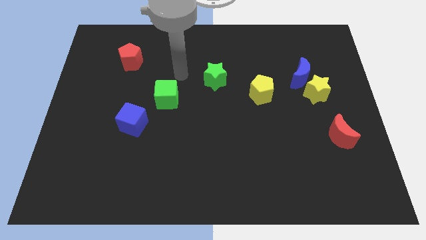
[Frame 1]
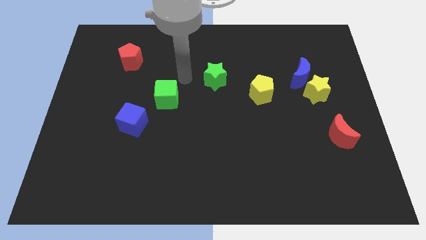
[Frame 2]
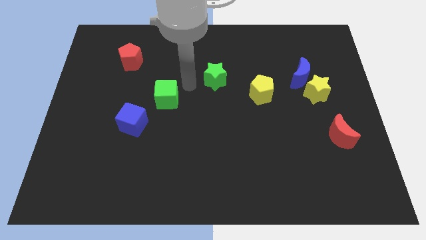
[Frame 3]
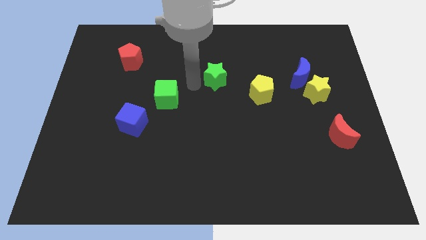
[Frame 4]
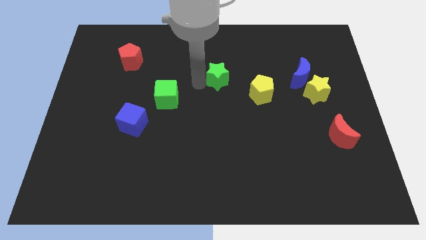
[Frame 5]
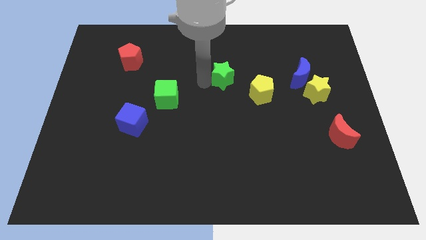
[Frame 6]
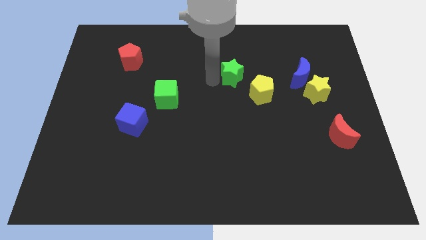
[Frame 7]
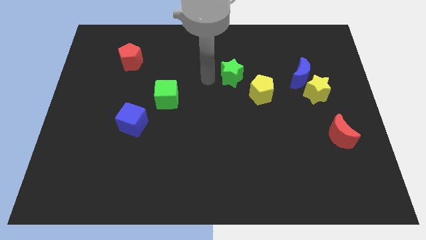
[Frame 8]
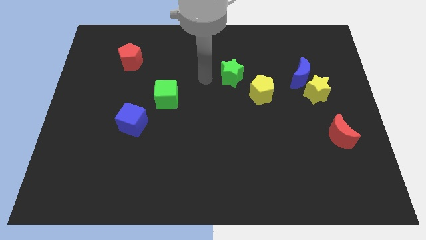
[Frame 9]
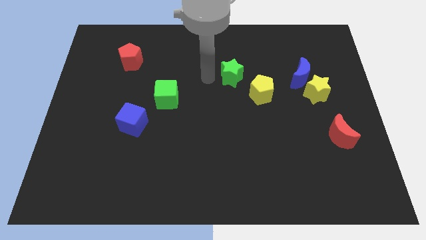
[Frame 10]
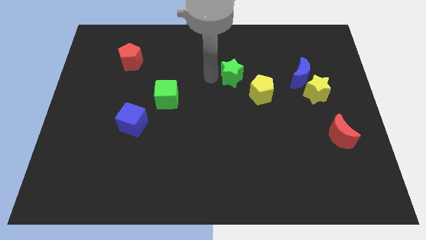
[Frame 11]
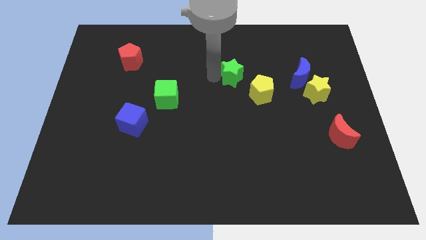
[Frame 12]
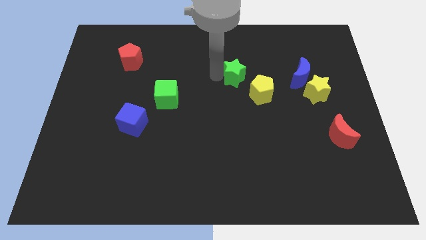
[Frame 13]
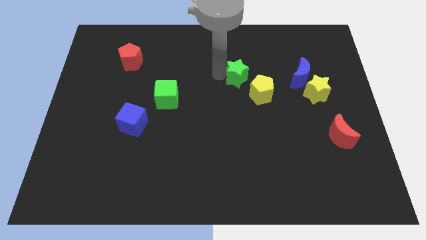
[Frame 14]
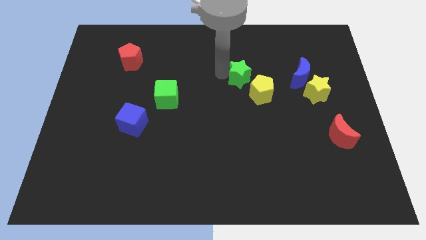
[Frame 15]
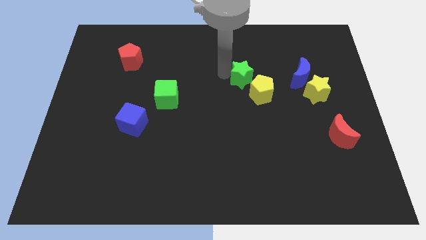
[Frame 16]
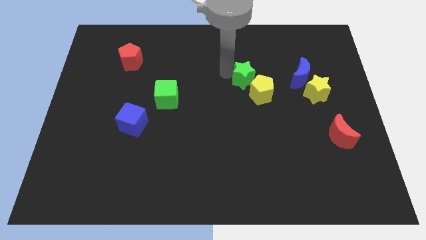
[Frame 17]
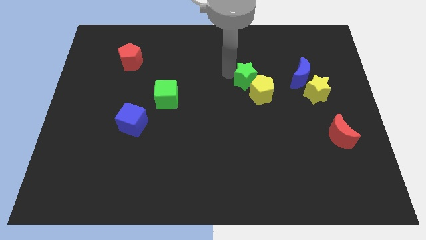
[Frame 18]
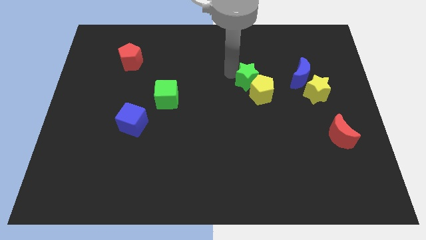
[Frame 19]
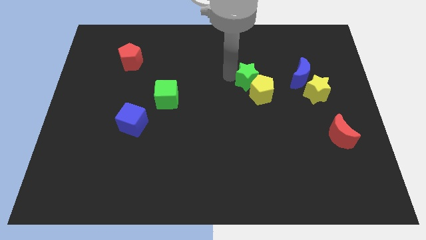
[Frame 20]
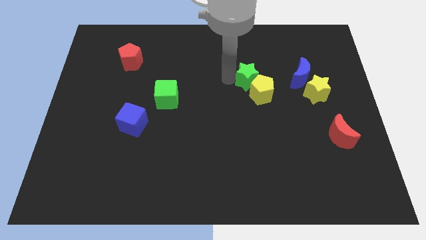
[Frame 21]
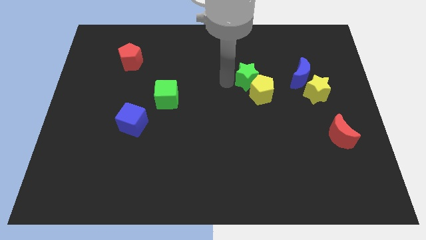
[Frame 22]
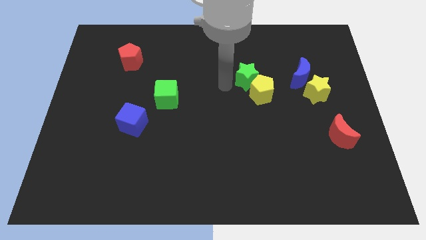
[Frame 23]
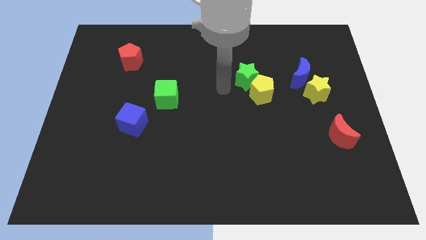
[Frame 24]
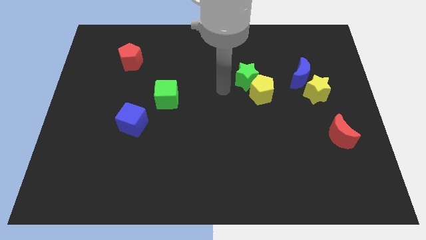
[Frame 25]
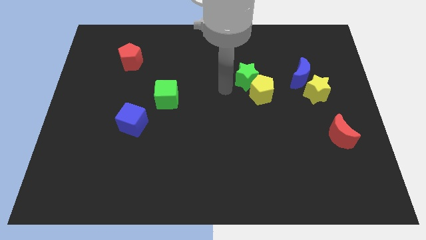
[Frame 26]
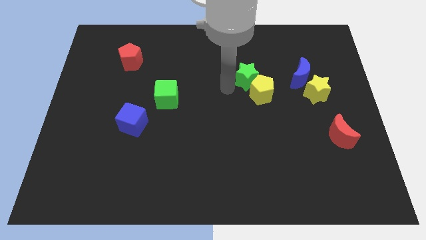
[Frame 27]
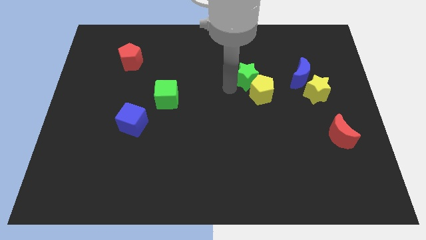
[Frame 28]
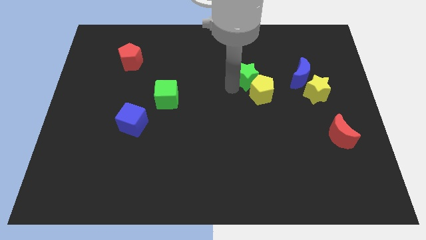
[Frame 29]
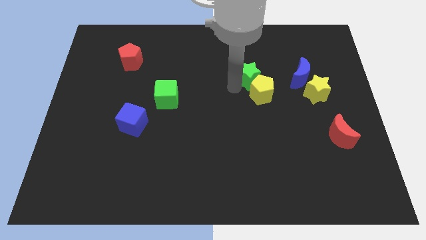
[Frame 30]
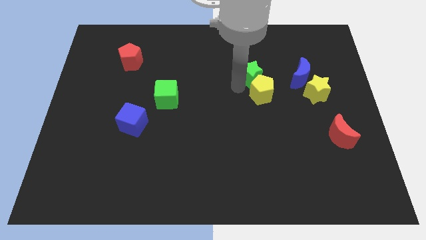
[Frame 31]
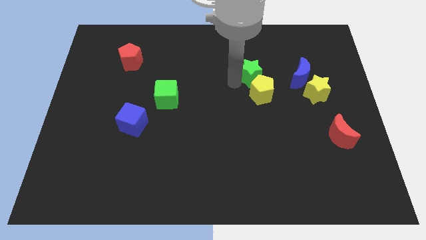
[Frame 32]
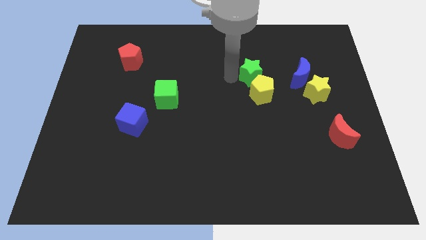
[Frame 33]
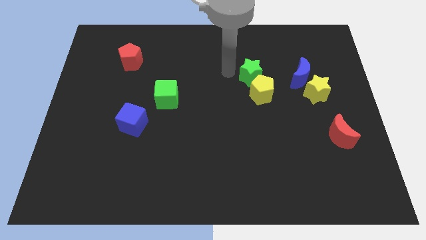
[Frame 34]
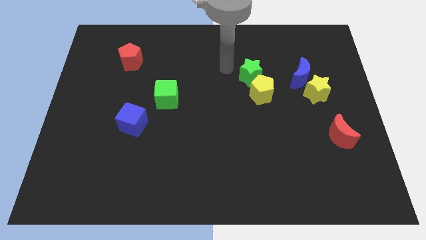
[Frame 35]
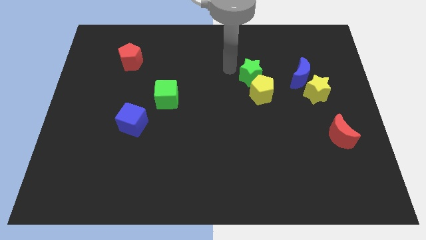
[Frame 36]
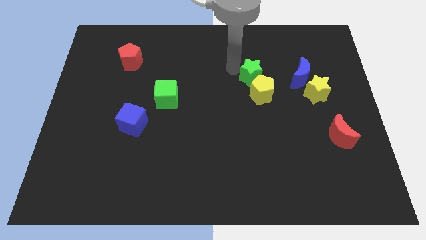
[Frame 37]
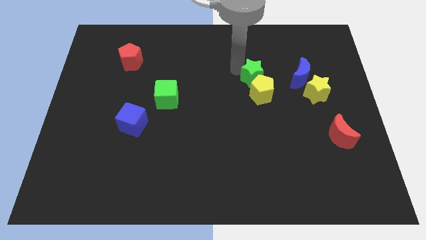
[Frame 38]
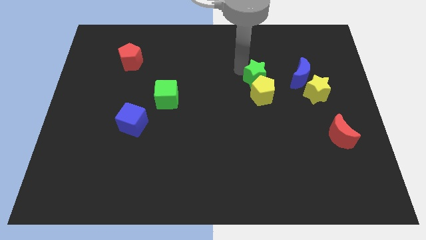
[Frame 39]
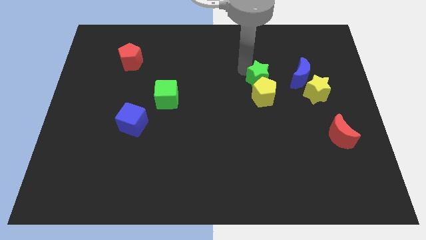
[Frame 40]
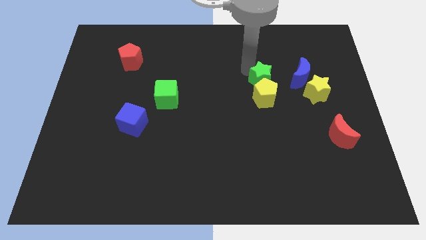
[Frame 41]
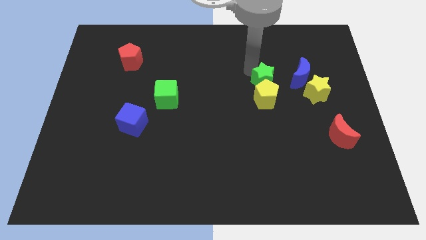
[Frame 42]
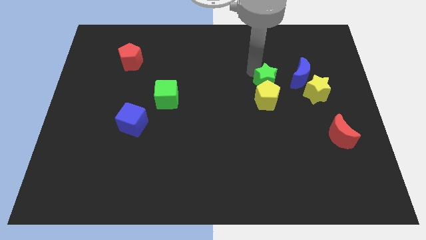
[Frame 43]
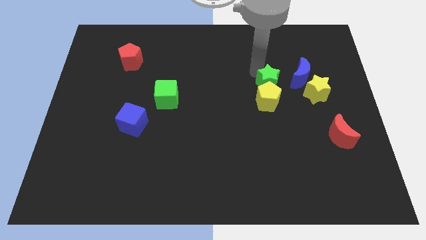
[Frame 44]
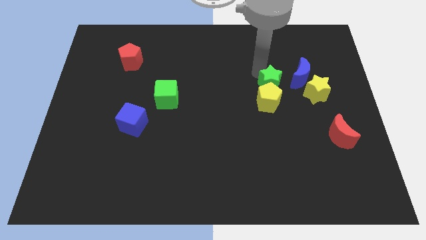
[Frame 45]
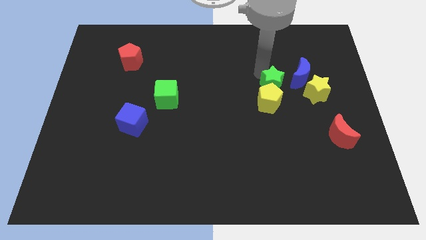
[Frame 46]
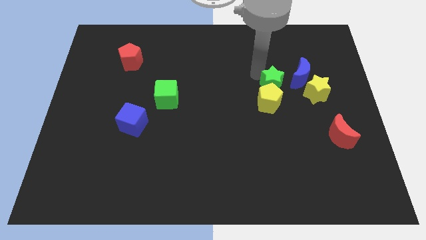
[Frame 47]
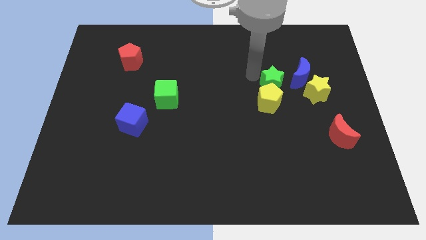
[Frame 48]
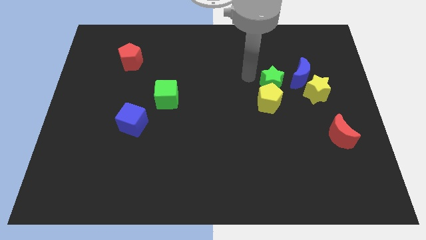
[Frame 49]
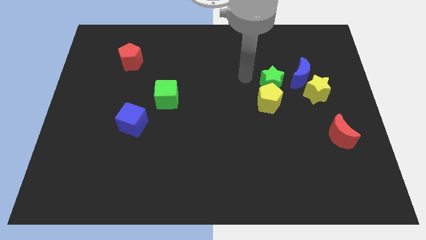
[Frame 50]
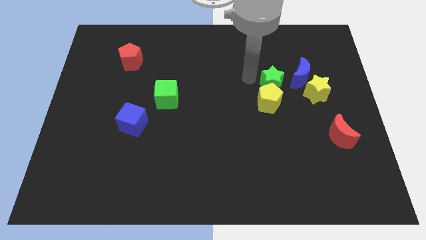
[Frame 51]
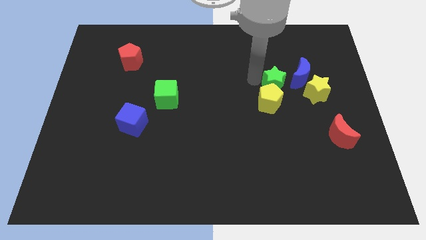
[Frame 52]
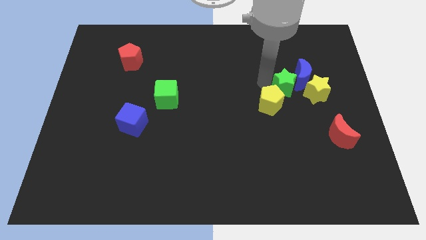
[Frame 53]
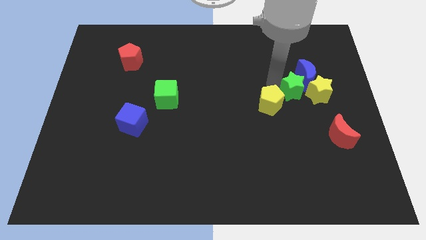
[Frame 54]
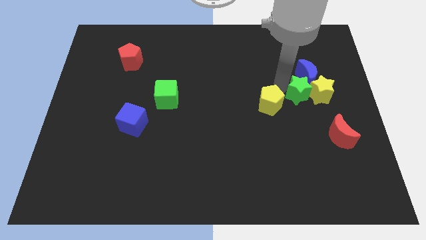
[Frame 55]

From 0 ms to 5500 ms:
put the green star towards the yellow star

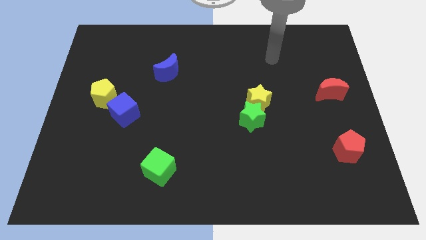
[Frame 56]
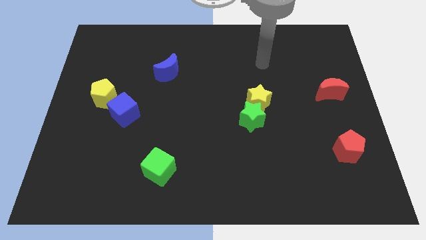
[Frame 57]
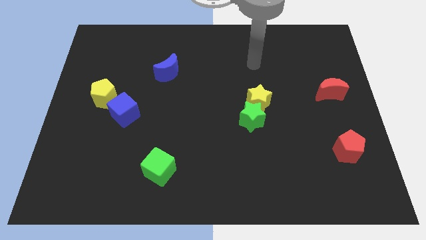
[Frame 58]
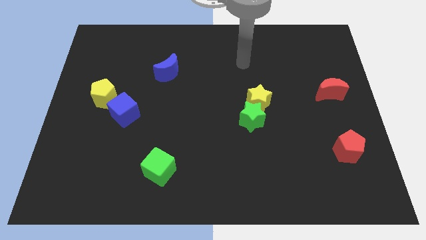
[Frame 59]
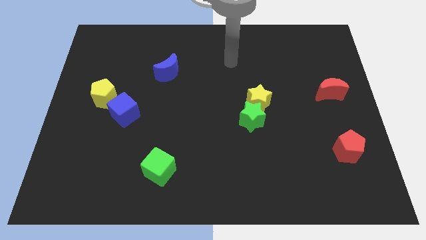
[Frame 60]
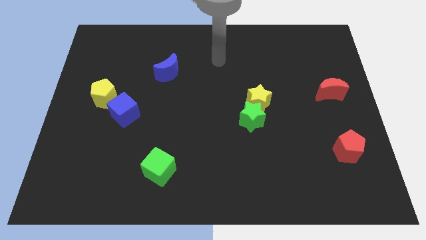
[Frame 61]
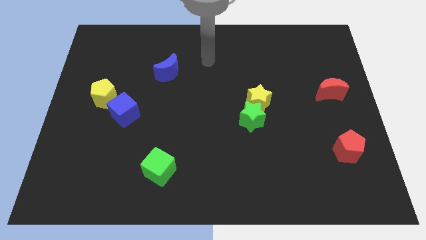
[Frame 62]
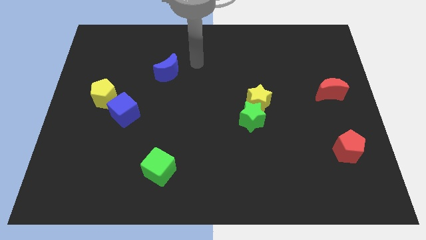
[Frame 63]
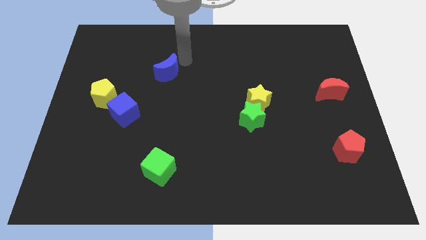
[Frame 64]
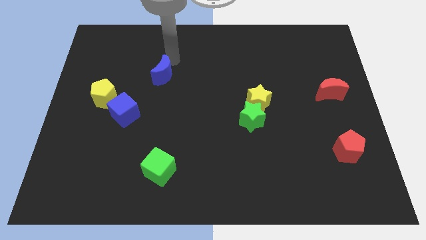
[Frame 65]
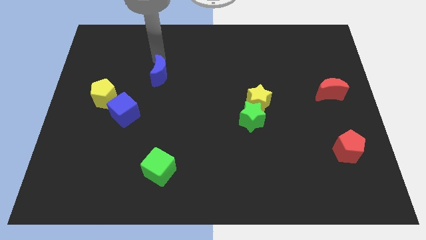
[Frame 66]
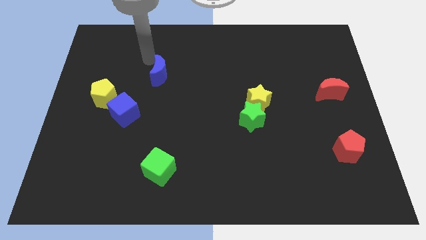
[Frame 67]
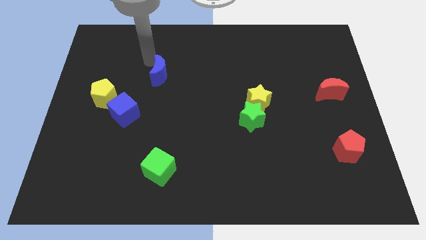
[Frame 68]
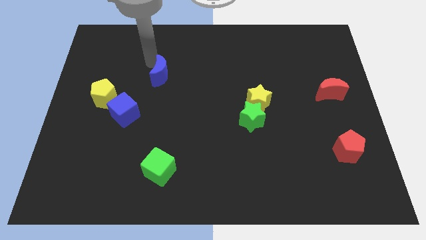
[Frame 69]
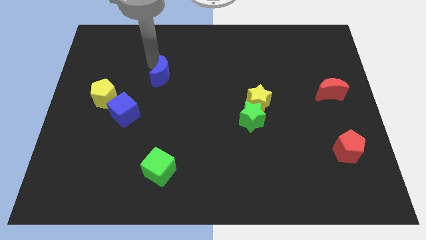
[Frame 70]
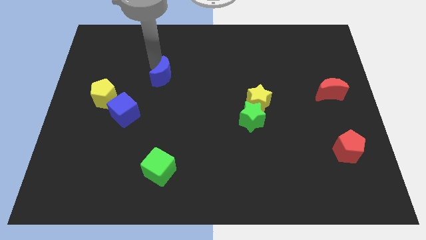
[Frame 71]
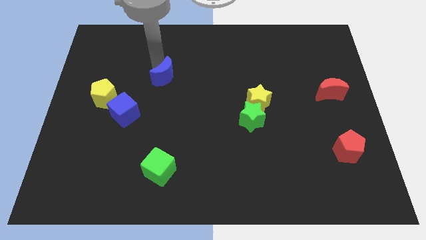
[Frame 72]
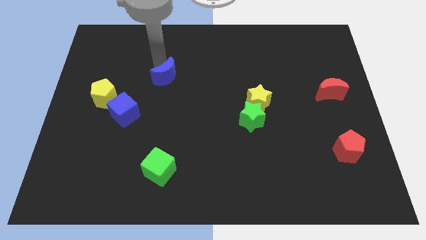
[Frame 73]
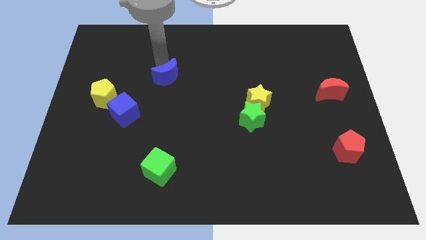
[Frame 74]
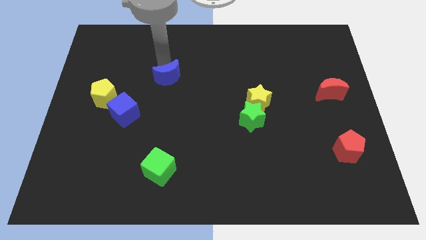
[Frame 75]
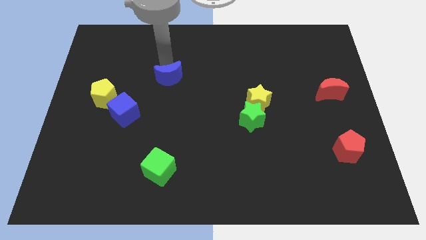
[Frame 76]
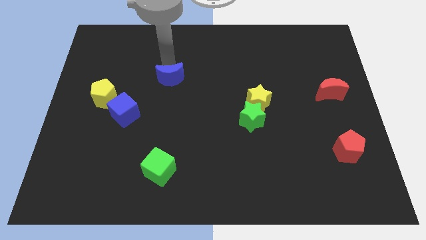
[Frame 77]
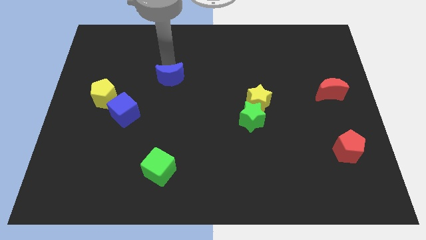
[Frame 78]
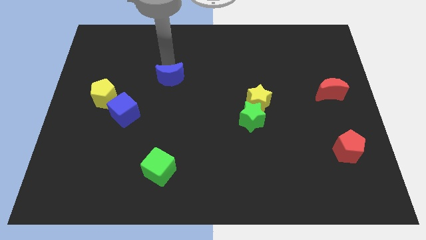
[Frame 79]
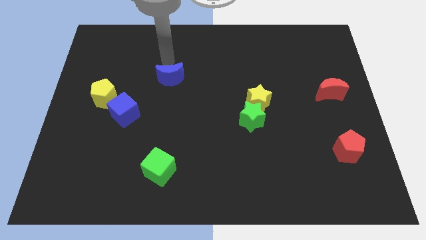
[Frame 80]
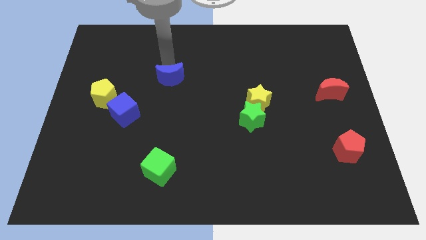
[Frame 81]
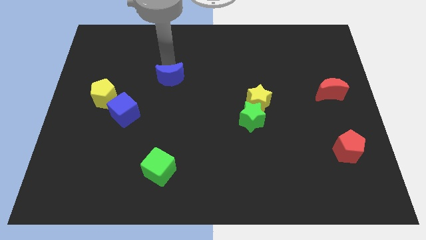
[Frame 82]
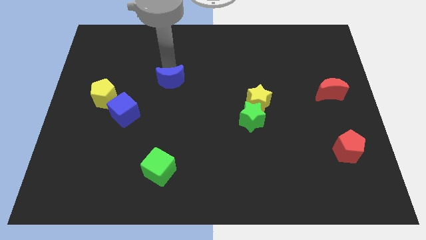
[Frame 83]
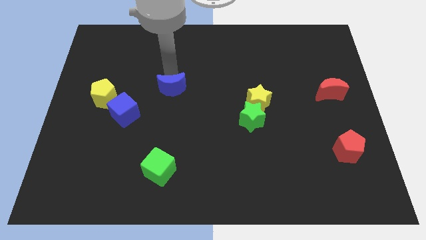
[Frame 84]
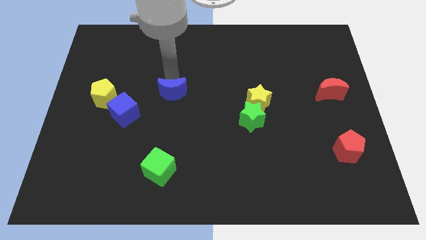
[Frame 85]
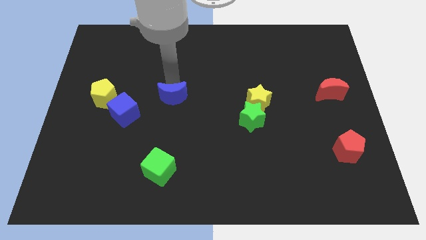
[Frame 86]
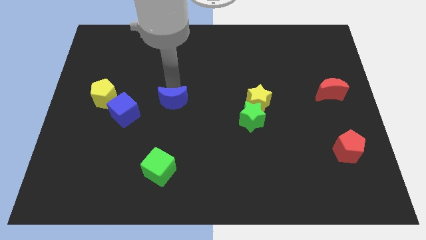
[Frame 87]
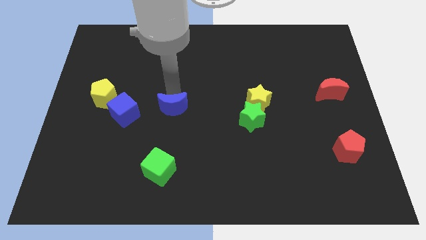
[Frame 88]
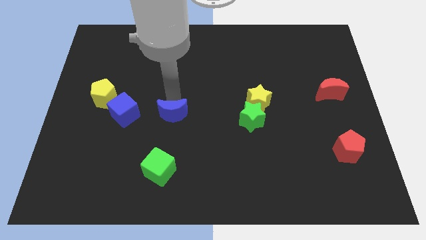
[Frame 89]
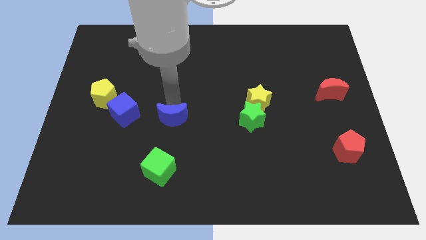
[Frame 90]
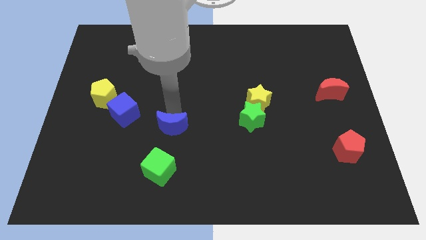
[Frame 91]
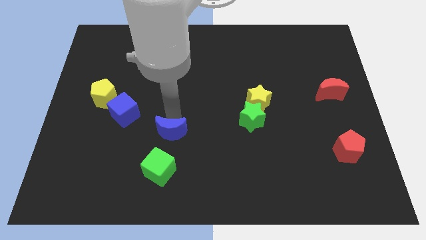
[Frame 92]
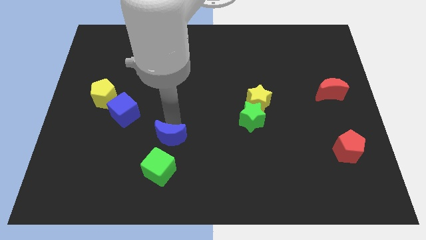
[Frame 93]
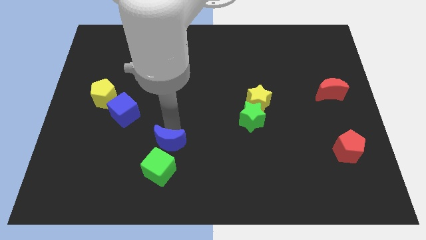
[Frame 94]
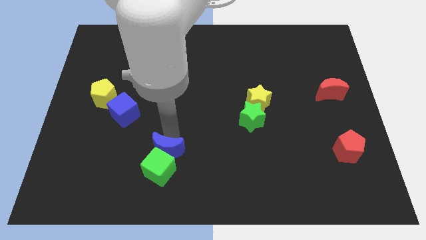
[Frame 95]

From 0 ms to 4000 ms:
move the blue moon towards the green cube
